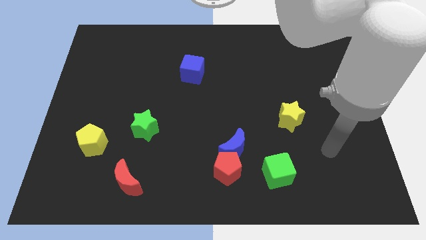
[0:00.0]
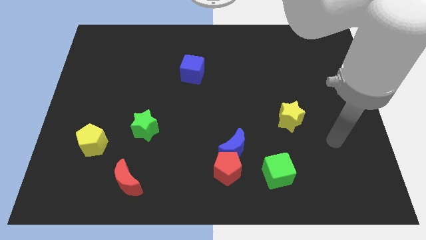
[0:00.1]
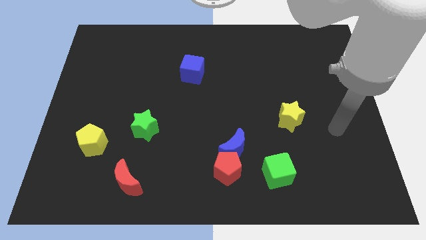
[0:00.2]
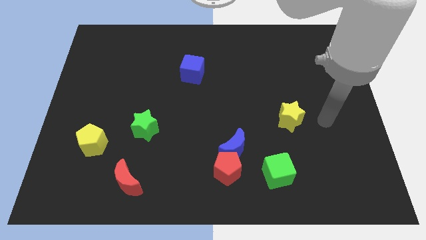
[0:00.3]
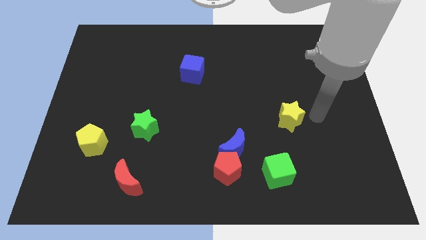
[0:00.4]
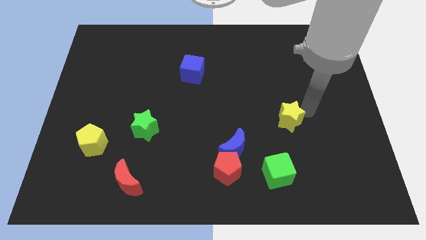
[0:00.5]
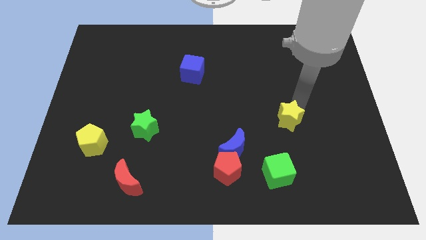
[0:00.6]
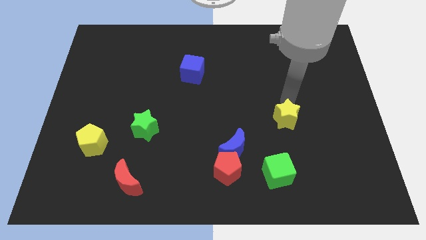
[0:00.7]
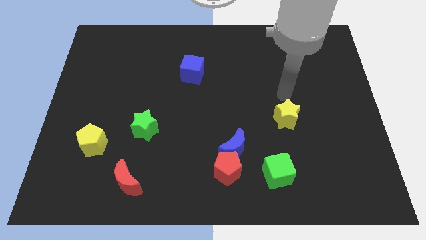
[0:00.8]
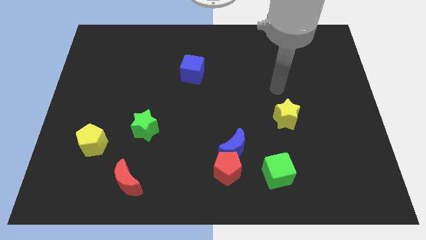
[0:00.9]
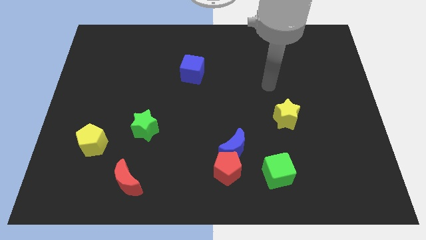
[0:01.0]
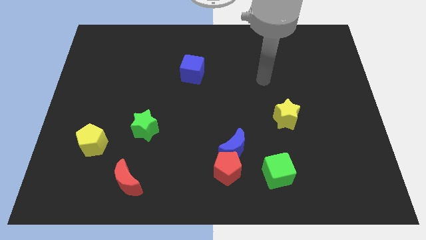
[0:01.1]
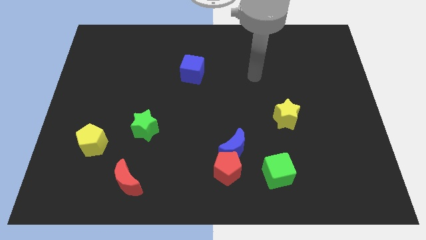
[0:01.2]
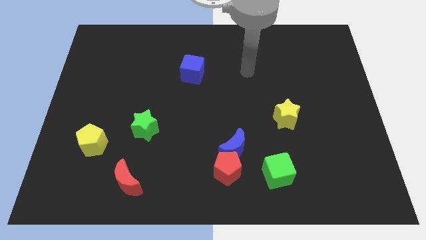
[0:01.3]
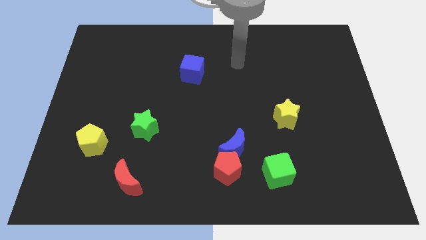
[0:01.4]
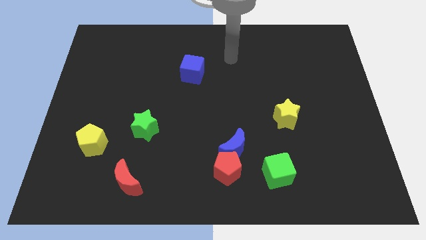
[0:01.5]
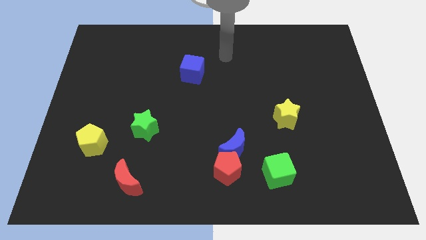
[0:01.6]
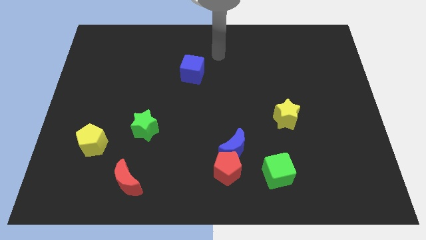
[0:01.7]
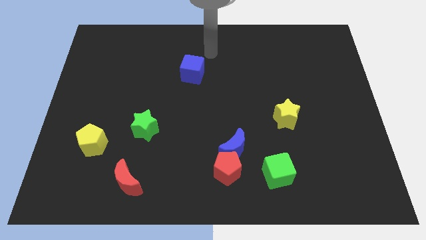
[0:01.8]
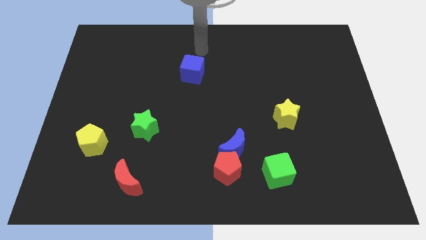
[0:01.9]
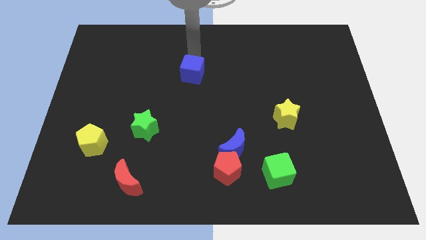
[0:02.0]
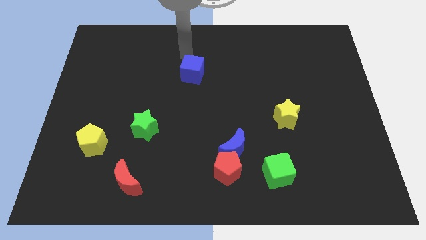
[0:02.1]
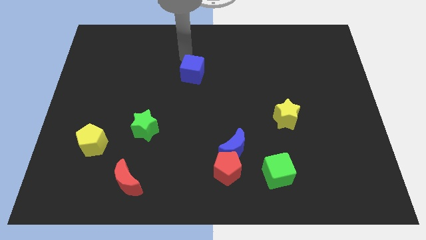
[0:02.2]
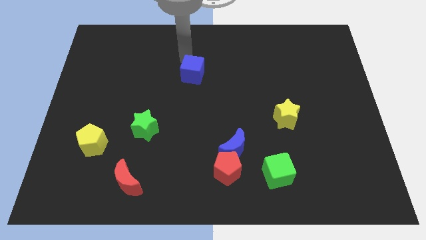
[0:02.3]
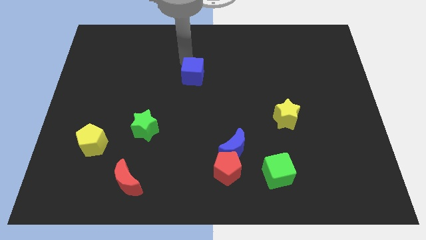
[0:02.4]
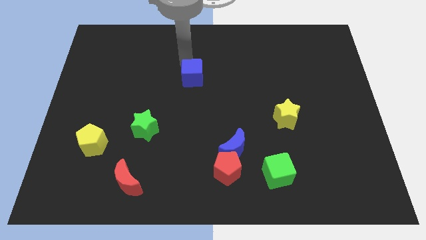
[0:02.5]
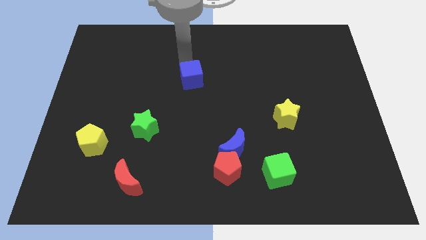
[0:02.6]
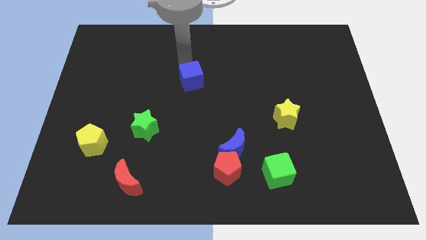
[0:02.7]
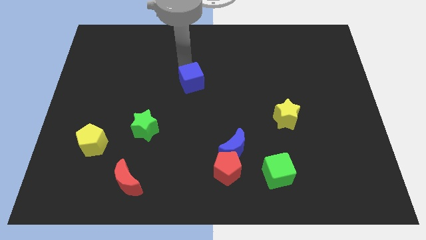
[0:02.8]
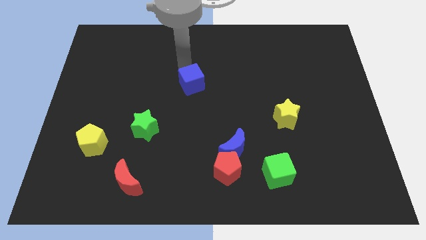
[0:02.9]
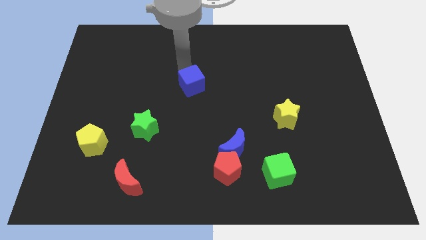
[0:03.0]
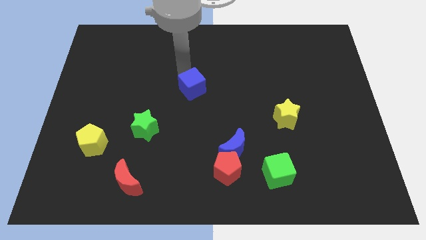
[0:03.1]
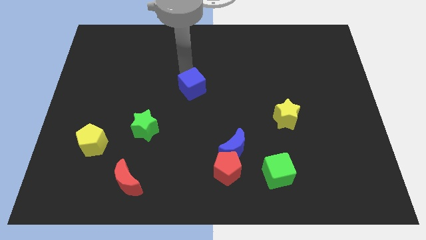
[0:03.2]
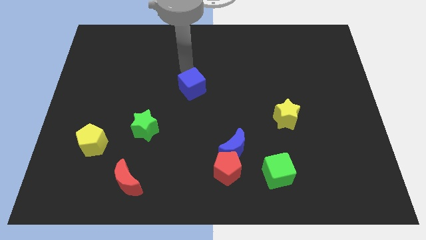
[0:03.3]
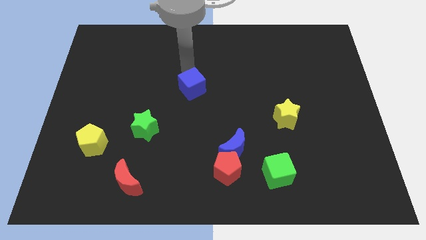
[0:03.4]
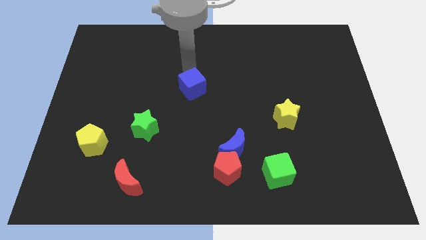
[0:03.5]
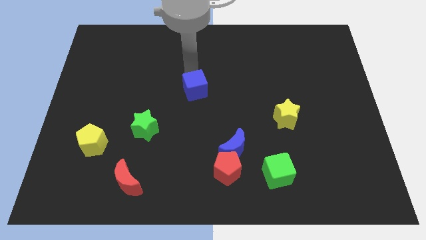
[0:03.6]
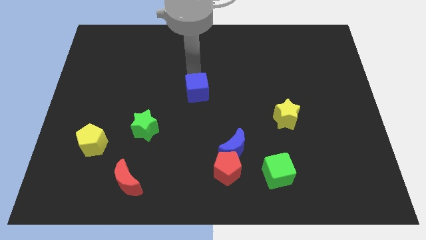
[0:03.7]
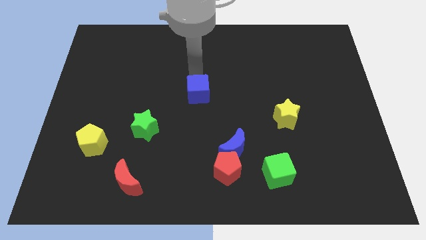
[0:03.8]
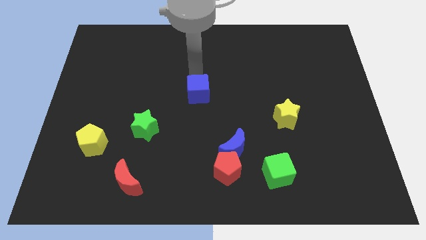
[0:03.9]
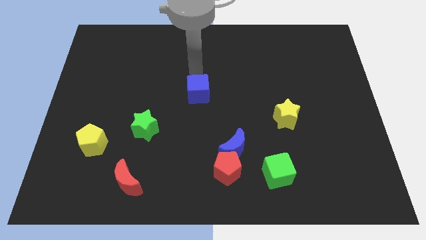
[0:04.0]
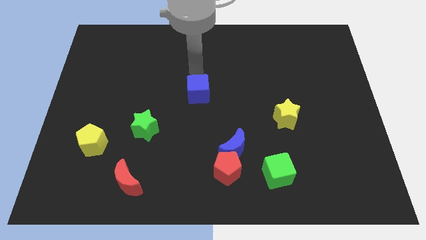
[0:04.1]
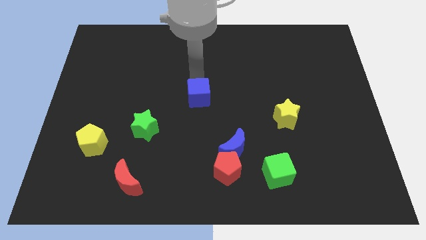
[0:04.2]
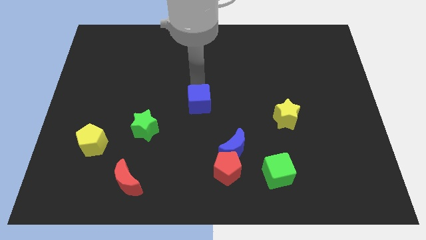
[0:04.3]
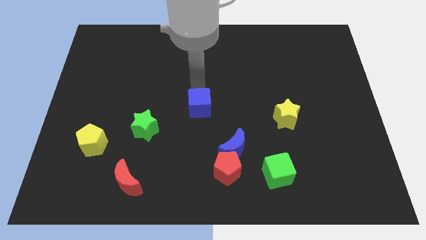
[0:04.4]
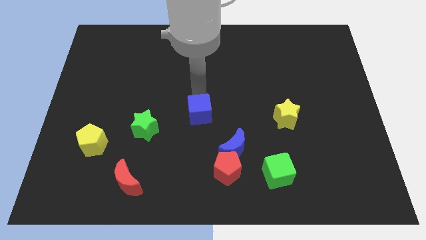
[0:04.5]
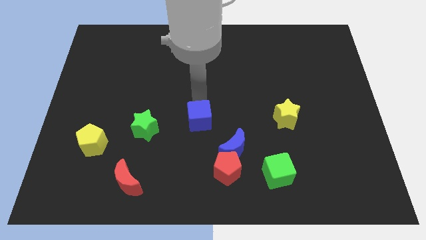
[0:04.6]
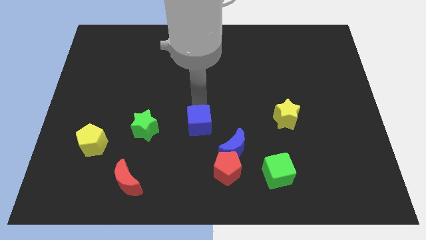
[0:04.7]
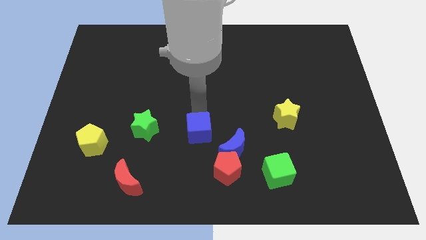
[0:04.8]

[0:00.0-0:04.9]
slide the blue cube to the top left of the red pentagon

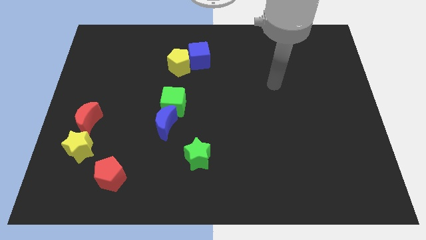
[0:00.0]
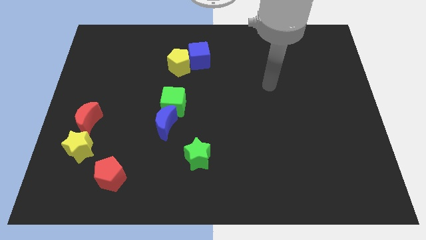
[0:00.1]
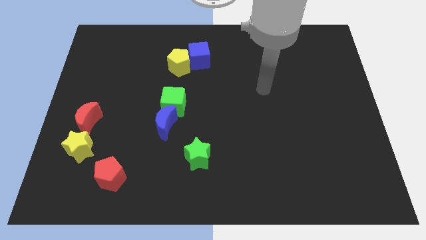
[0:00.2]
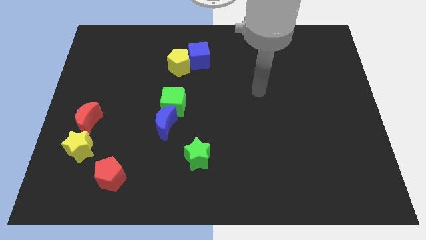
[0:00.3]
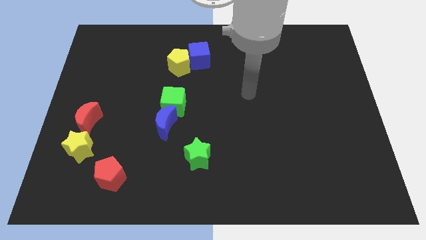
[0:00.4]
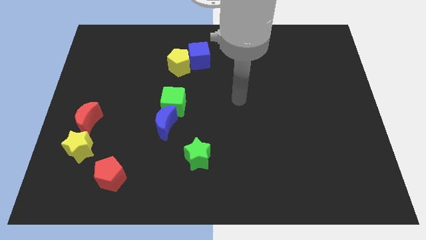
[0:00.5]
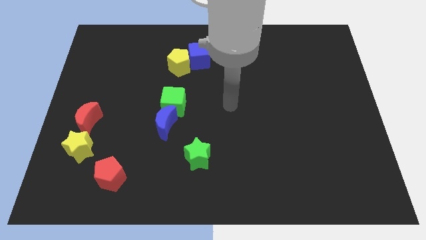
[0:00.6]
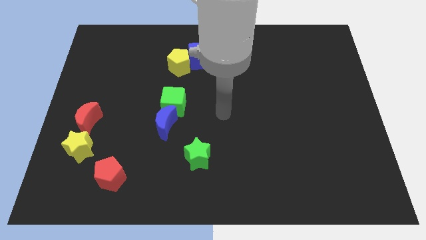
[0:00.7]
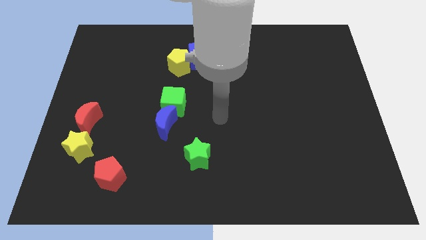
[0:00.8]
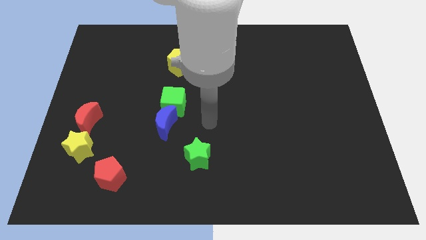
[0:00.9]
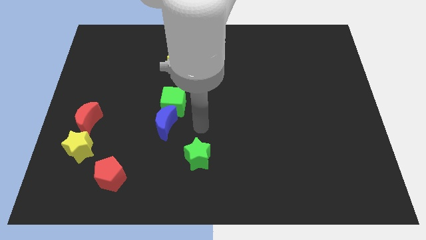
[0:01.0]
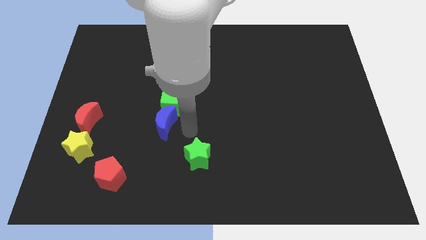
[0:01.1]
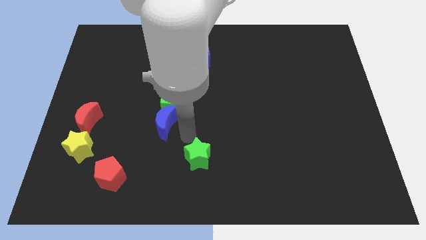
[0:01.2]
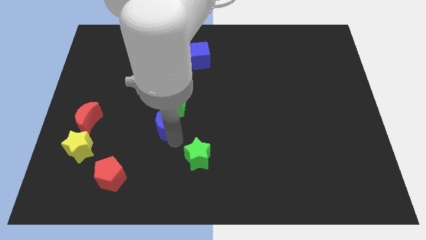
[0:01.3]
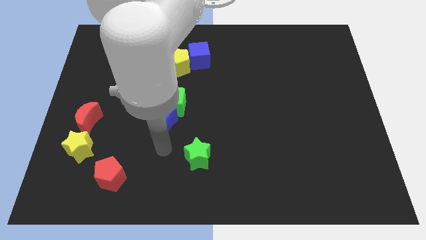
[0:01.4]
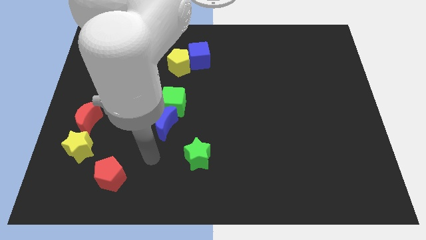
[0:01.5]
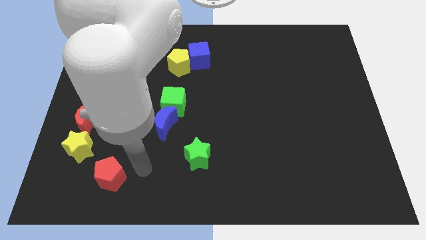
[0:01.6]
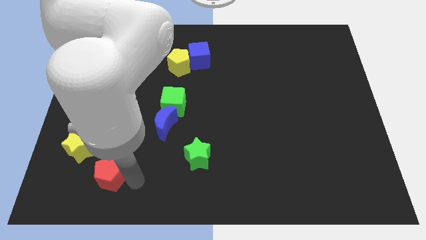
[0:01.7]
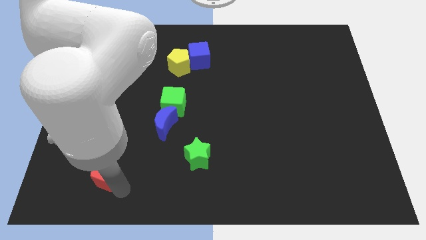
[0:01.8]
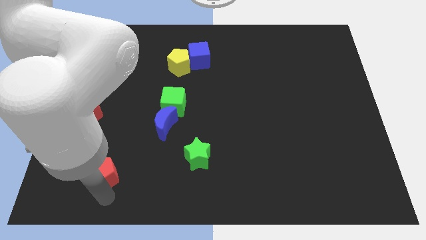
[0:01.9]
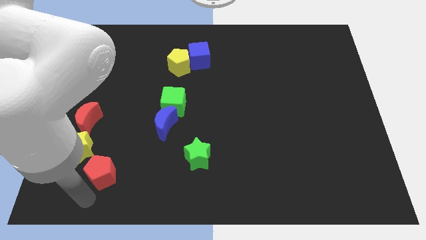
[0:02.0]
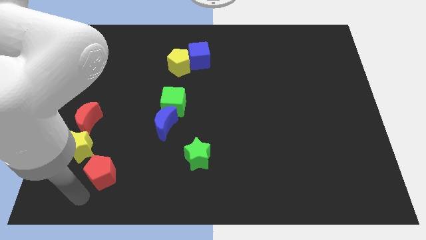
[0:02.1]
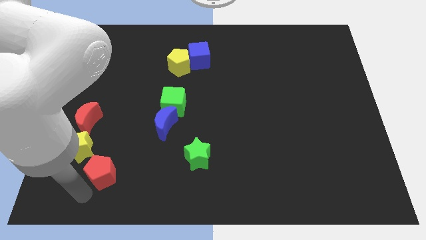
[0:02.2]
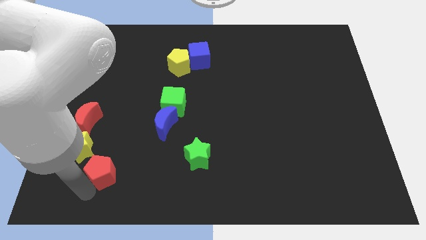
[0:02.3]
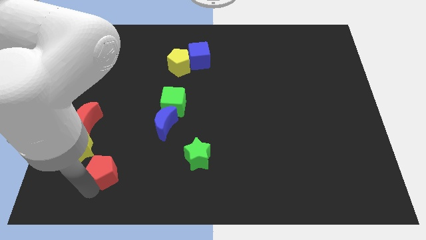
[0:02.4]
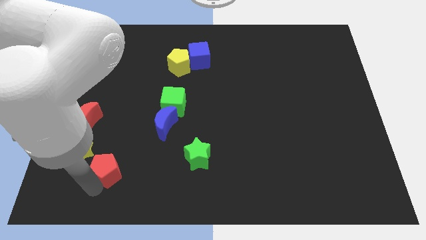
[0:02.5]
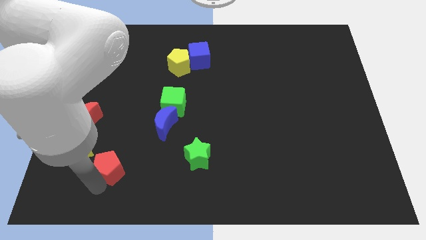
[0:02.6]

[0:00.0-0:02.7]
push the red pentagon to the right side of the yellow star

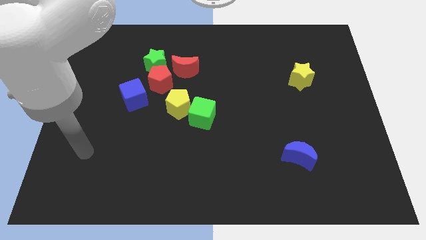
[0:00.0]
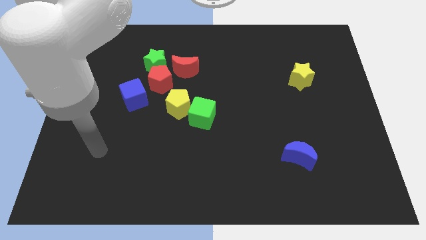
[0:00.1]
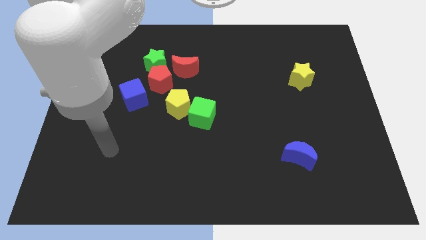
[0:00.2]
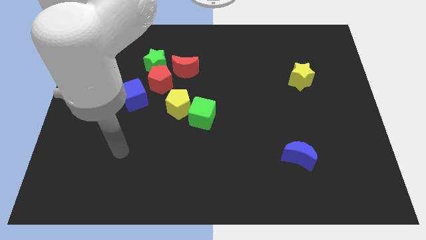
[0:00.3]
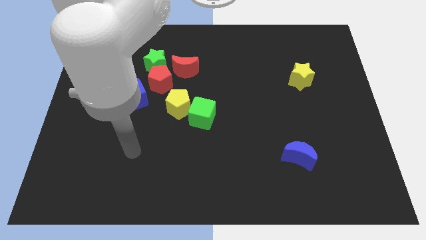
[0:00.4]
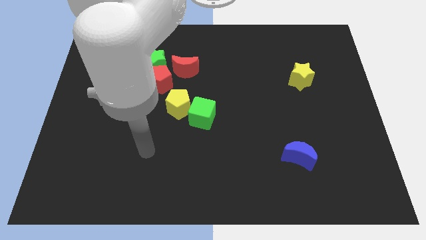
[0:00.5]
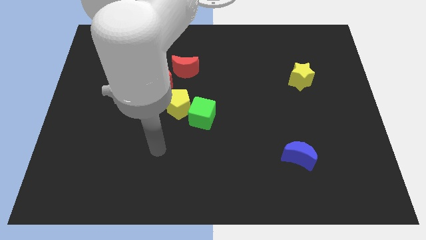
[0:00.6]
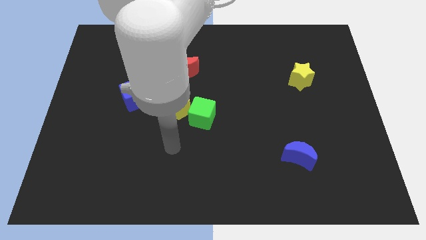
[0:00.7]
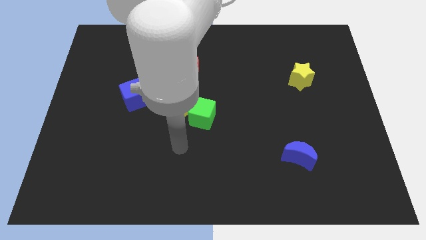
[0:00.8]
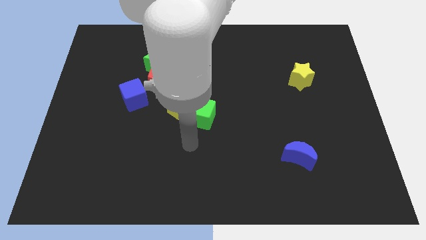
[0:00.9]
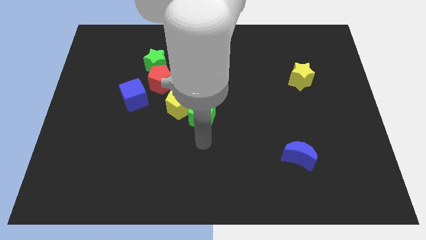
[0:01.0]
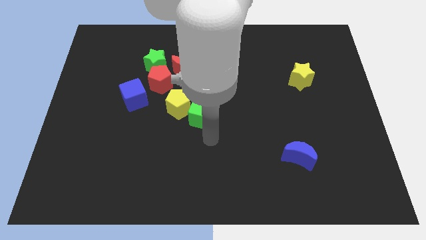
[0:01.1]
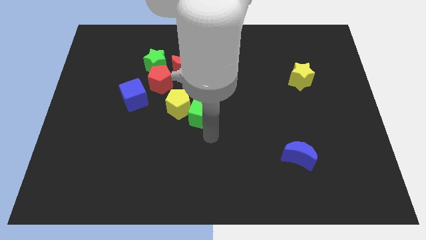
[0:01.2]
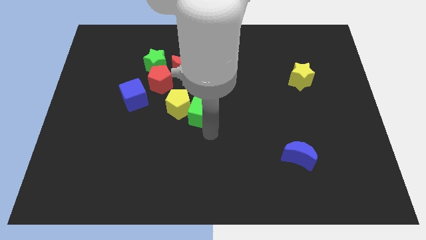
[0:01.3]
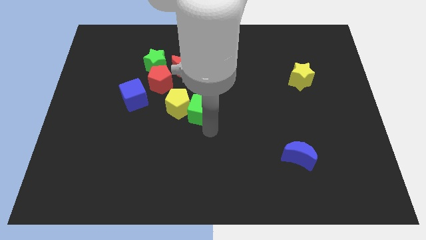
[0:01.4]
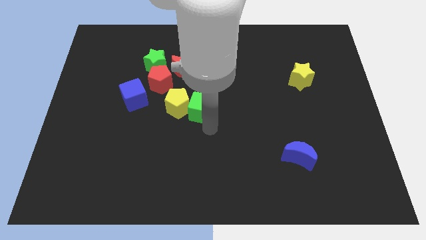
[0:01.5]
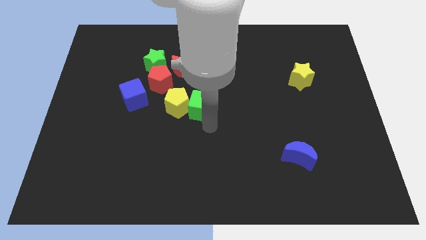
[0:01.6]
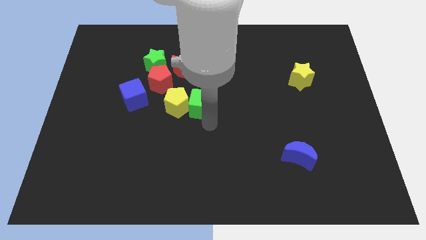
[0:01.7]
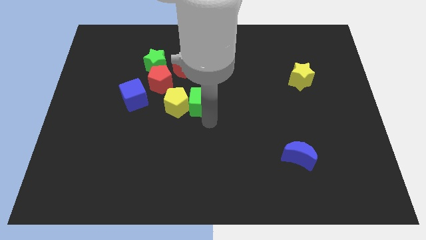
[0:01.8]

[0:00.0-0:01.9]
move the green cube just right of the blue cube
